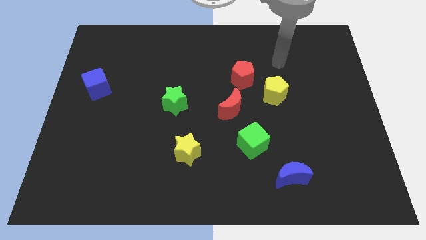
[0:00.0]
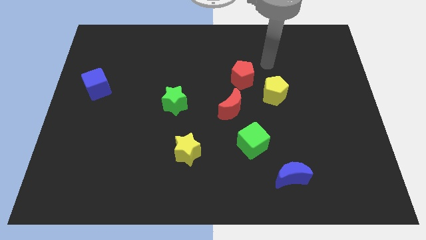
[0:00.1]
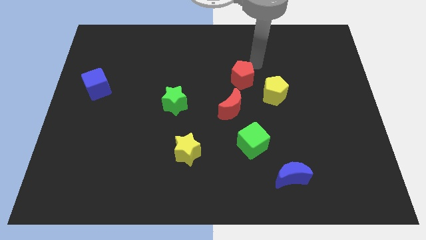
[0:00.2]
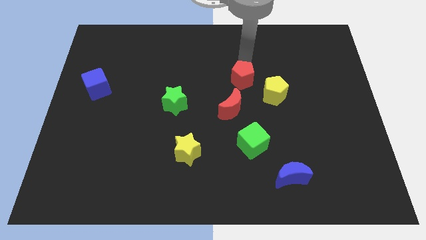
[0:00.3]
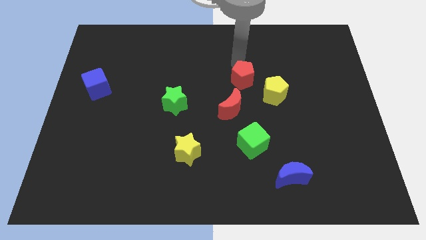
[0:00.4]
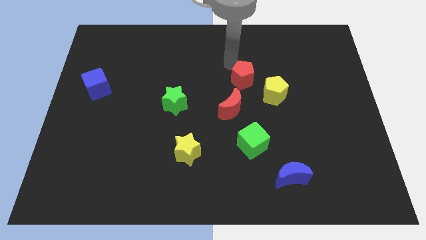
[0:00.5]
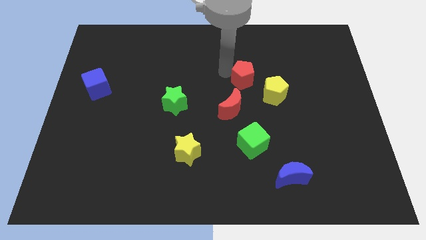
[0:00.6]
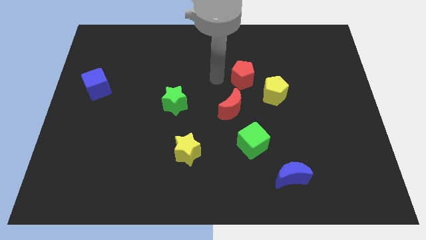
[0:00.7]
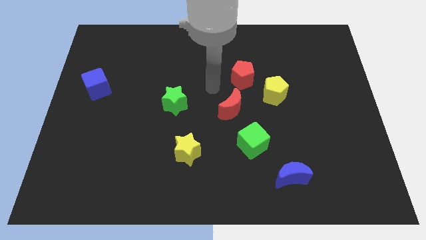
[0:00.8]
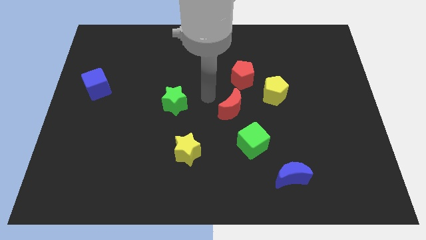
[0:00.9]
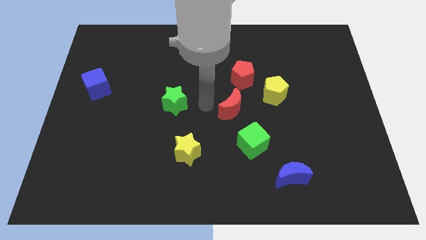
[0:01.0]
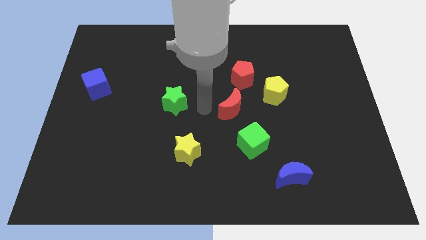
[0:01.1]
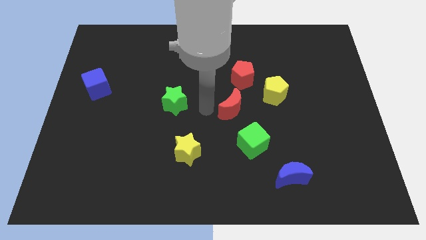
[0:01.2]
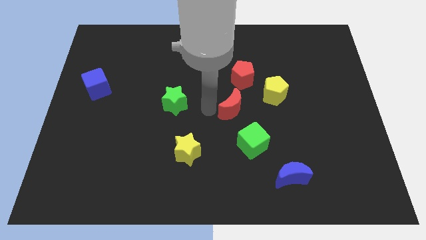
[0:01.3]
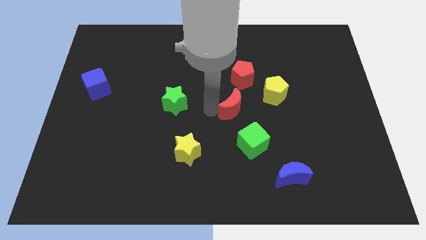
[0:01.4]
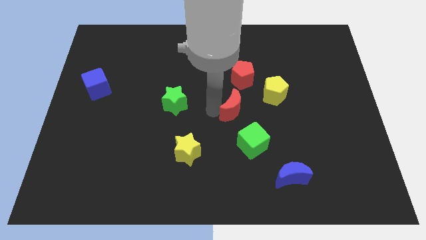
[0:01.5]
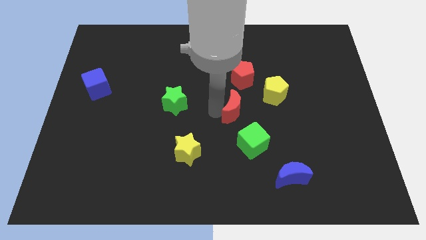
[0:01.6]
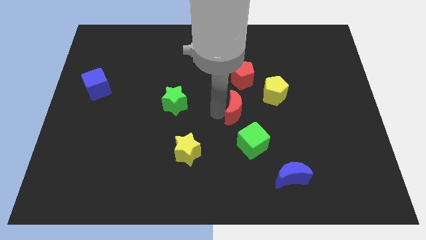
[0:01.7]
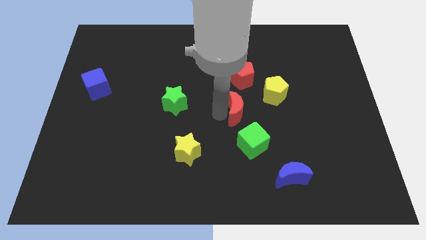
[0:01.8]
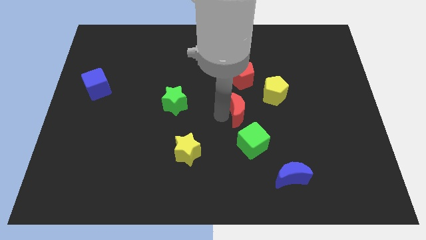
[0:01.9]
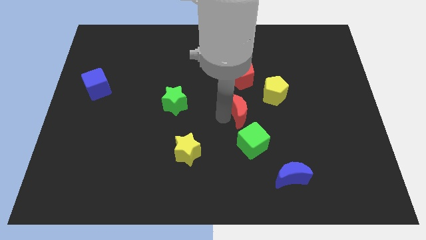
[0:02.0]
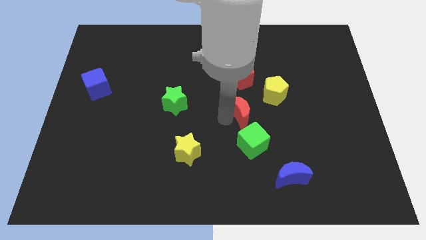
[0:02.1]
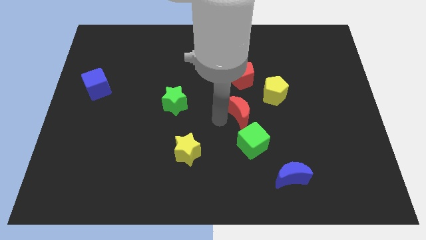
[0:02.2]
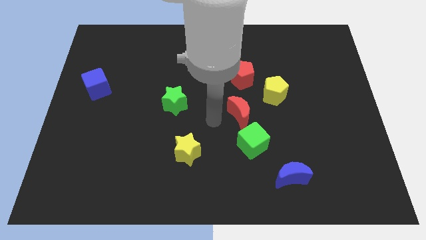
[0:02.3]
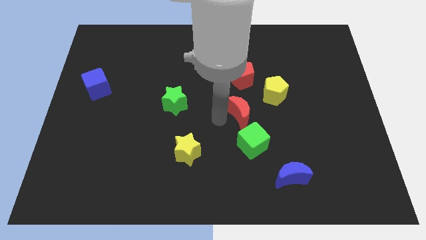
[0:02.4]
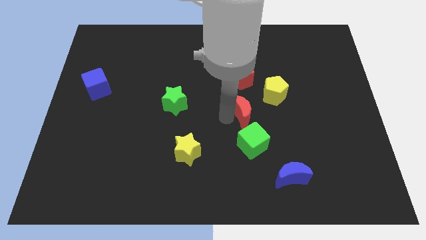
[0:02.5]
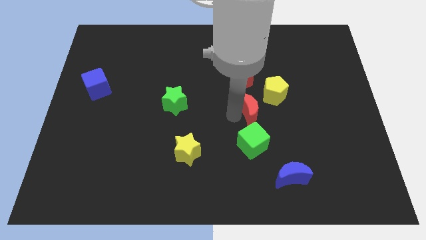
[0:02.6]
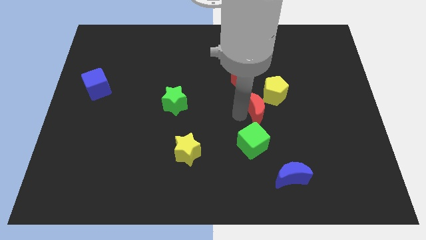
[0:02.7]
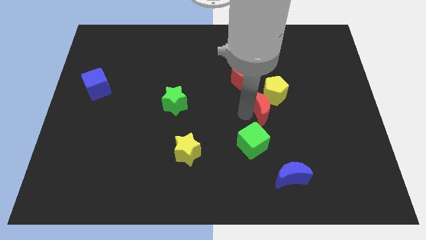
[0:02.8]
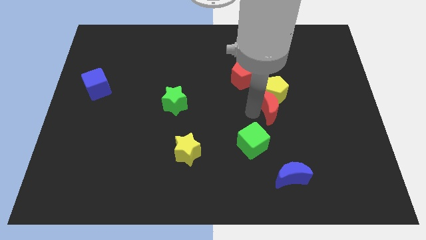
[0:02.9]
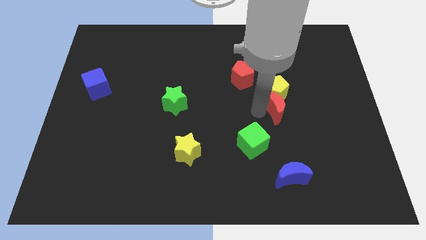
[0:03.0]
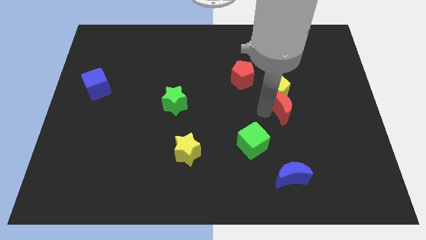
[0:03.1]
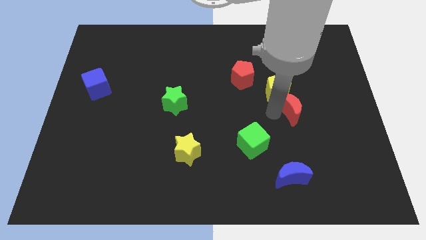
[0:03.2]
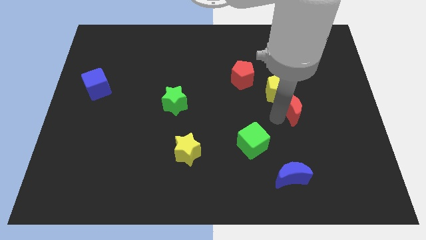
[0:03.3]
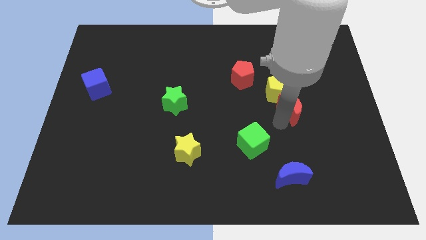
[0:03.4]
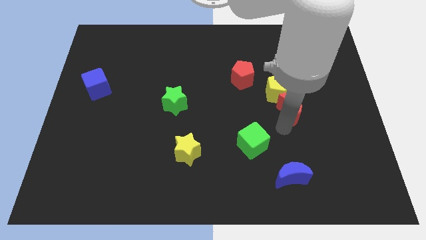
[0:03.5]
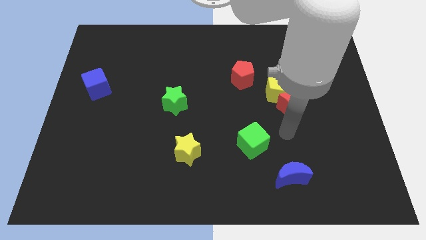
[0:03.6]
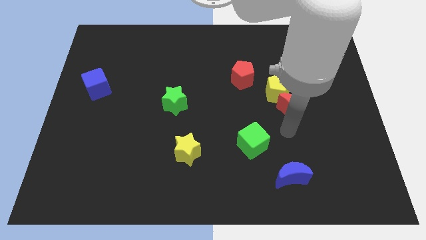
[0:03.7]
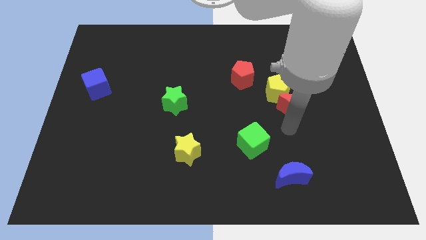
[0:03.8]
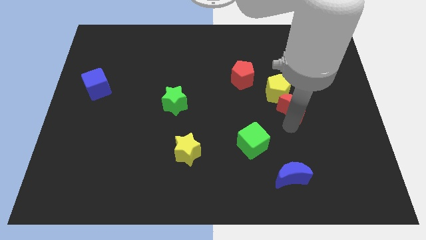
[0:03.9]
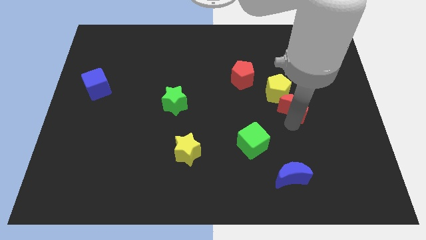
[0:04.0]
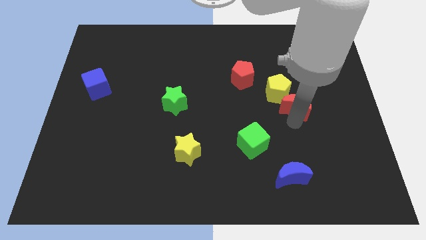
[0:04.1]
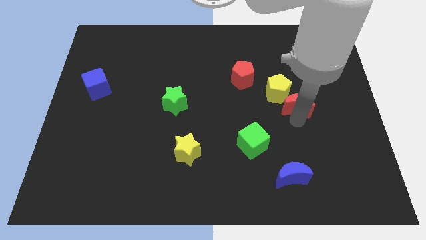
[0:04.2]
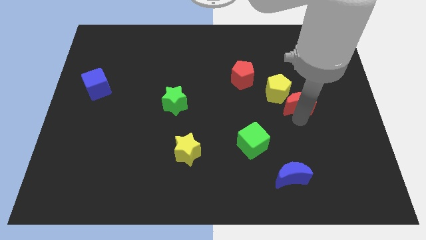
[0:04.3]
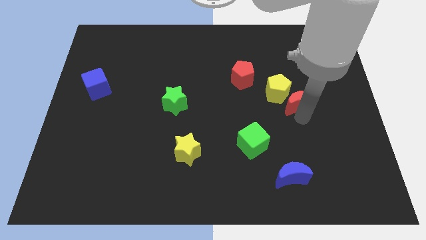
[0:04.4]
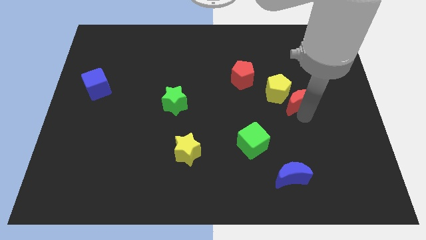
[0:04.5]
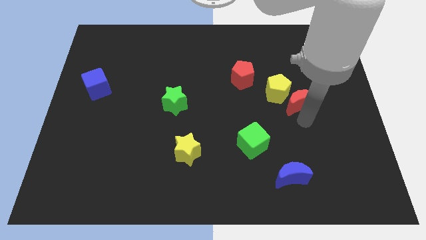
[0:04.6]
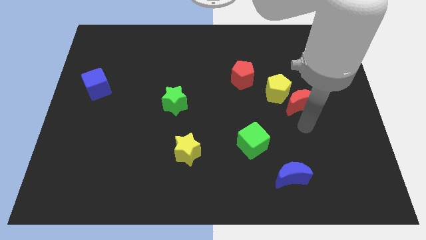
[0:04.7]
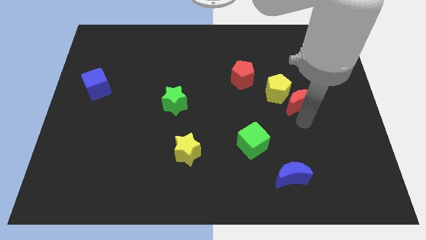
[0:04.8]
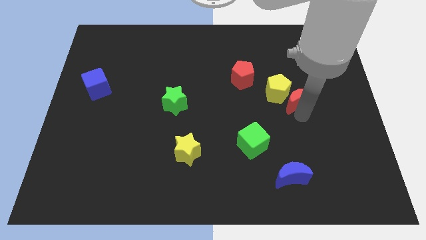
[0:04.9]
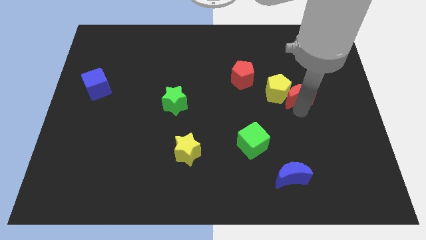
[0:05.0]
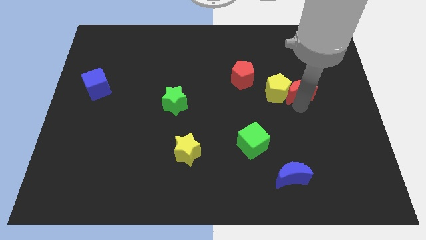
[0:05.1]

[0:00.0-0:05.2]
move the red moon diagonally up and to the right of the yellow pentagon

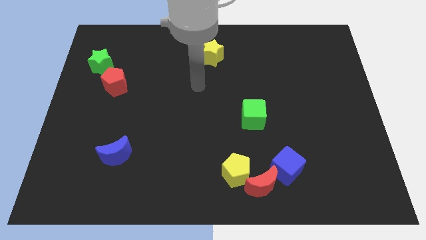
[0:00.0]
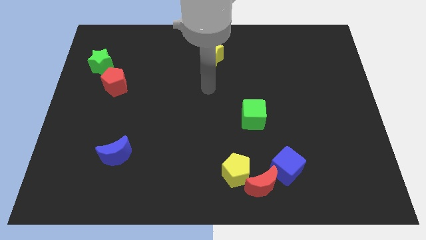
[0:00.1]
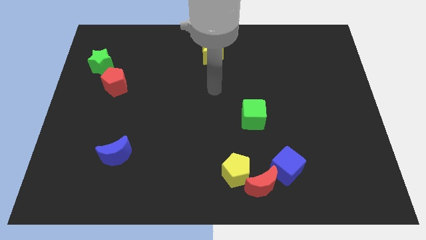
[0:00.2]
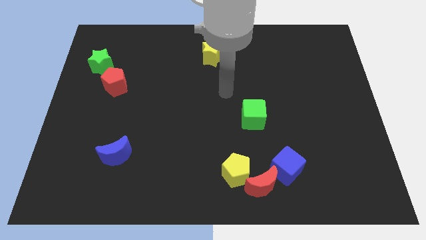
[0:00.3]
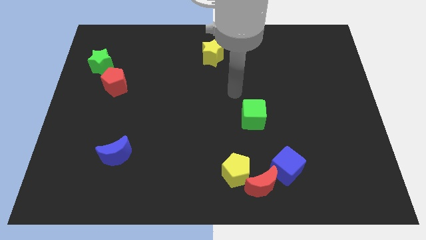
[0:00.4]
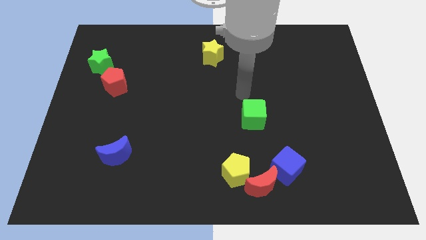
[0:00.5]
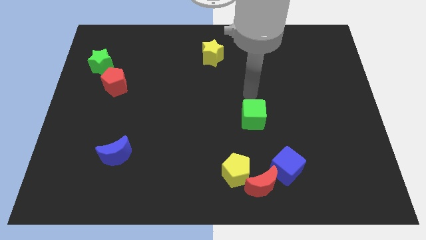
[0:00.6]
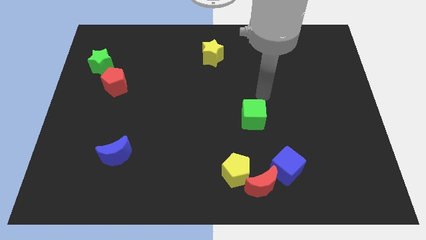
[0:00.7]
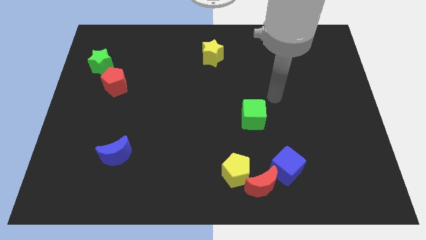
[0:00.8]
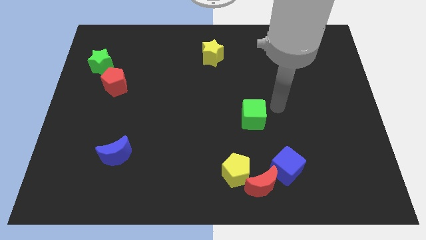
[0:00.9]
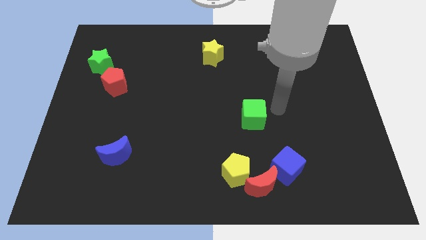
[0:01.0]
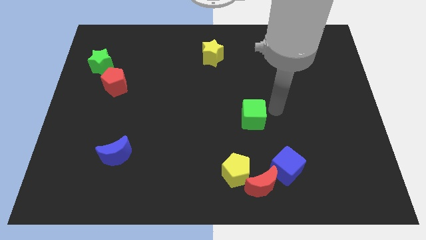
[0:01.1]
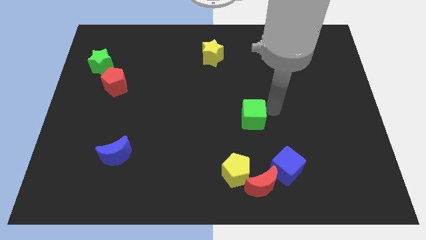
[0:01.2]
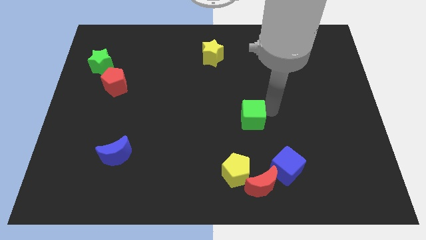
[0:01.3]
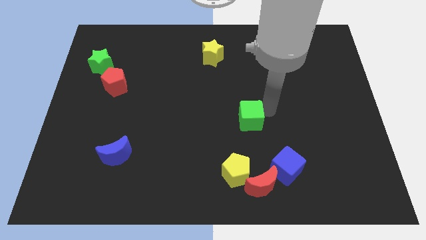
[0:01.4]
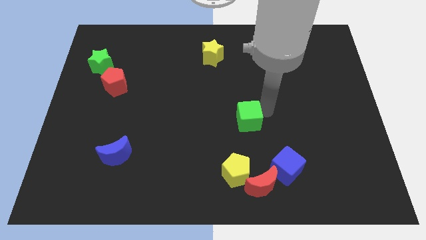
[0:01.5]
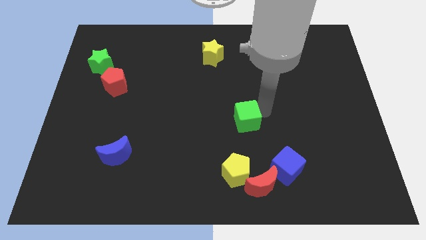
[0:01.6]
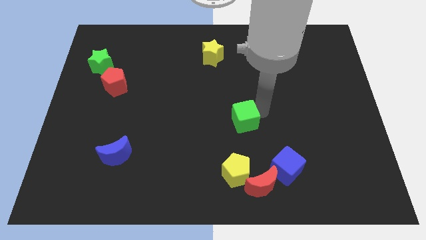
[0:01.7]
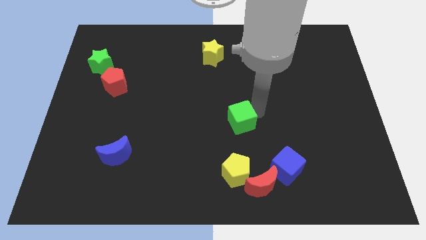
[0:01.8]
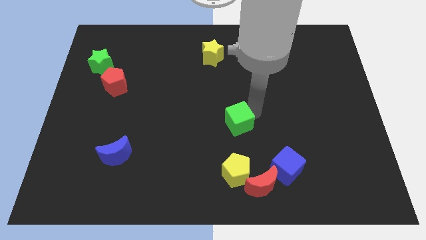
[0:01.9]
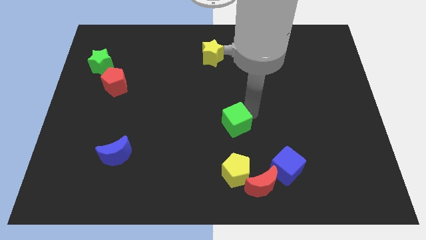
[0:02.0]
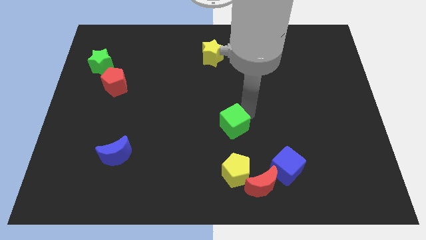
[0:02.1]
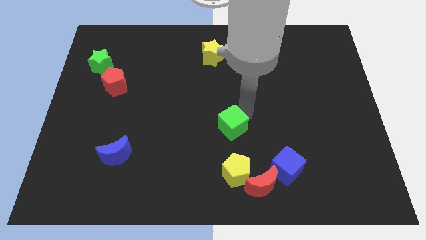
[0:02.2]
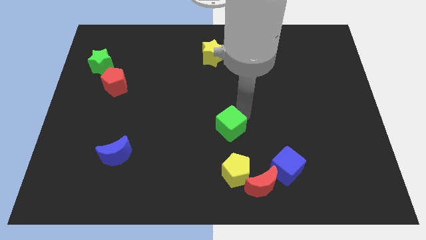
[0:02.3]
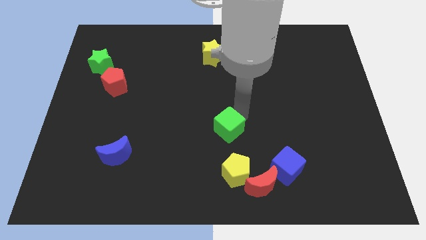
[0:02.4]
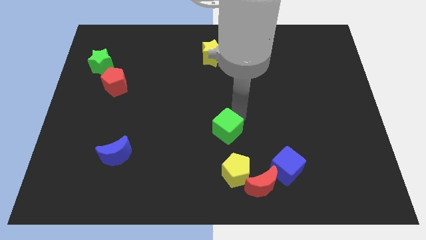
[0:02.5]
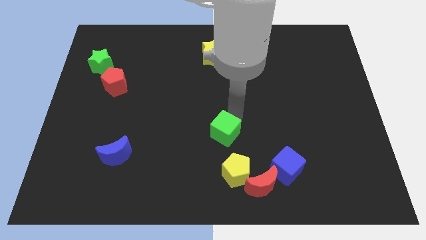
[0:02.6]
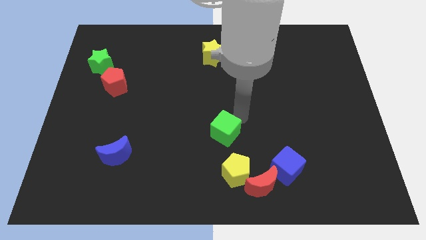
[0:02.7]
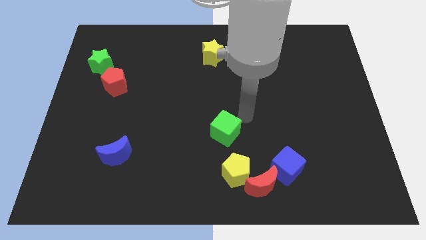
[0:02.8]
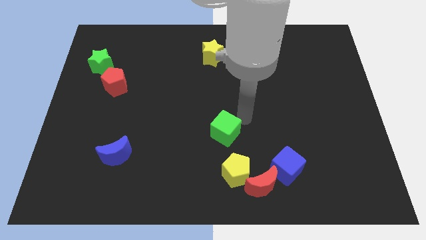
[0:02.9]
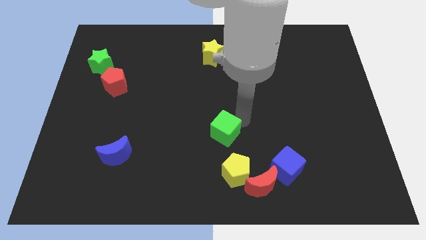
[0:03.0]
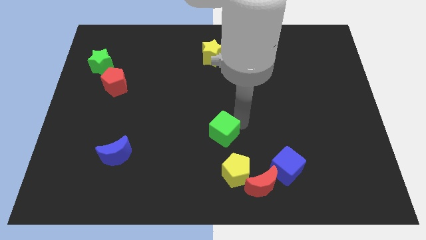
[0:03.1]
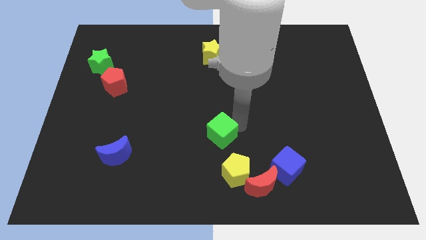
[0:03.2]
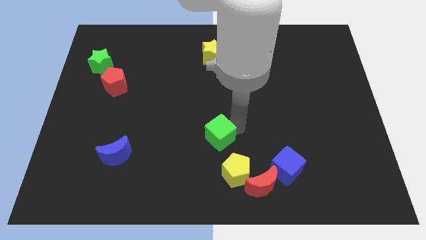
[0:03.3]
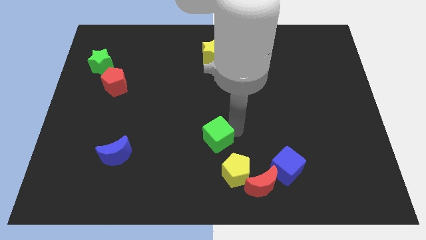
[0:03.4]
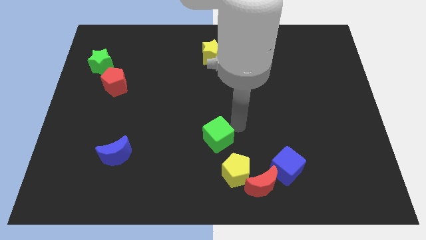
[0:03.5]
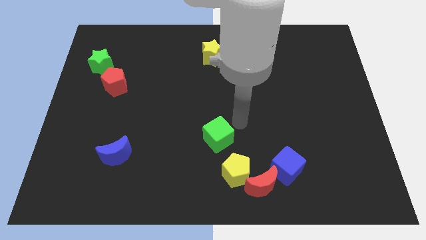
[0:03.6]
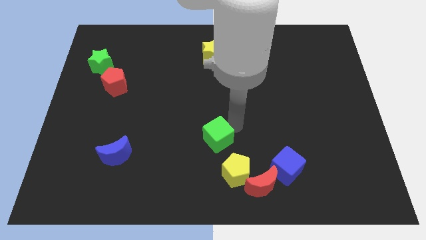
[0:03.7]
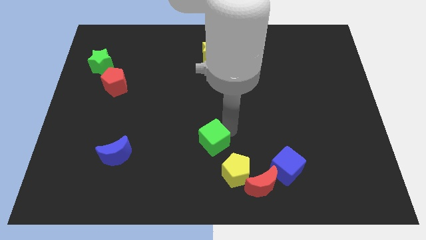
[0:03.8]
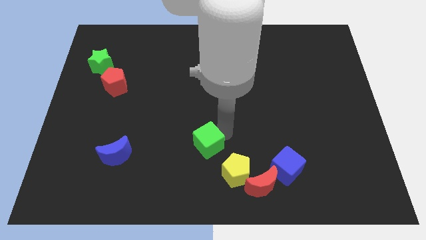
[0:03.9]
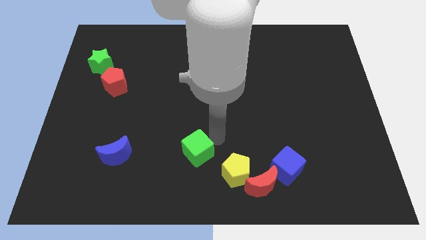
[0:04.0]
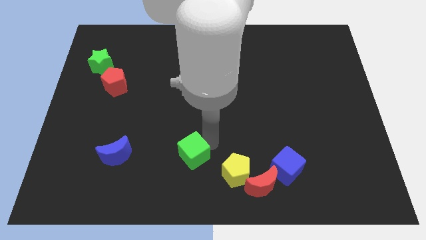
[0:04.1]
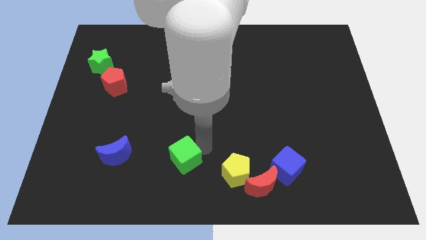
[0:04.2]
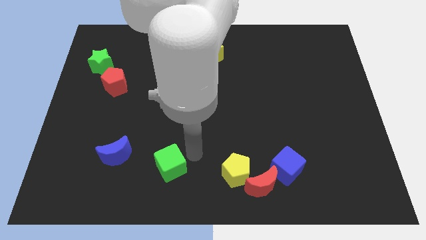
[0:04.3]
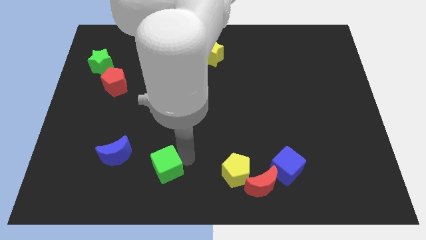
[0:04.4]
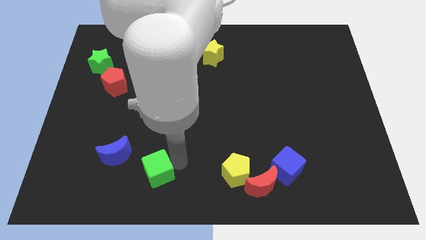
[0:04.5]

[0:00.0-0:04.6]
move the green cube to the bottom right of the blue moon
